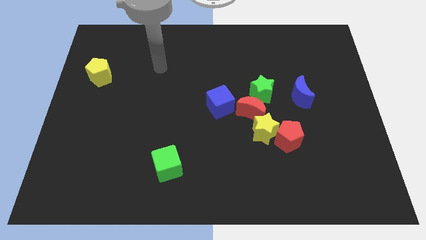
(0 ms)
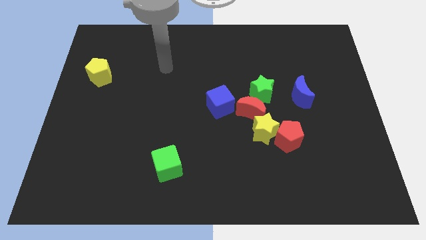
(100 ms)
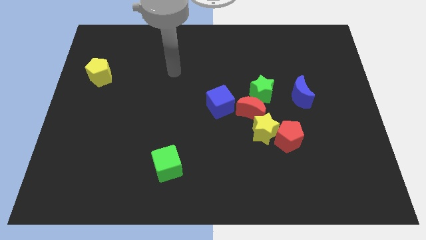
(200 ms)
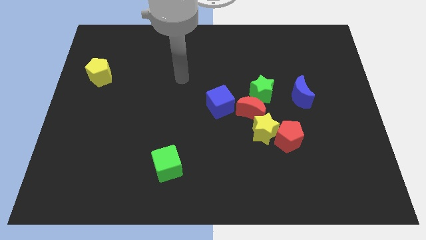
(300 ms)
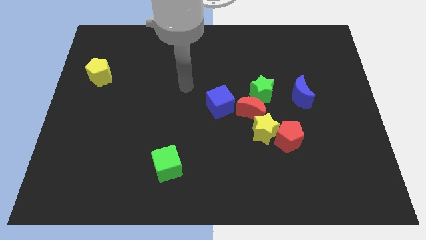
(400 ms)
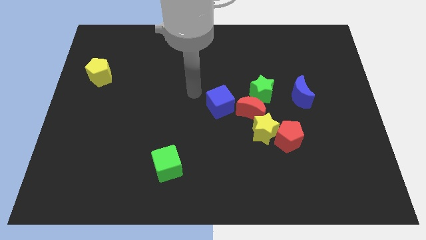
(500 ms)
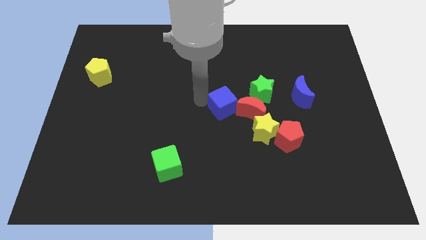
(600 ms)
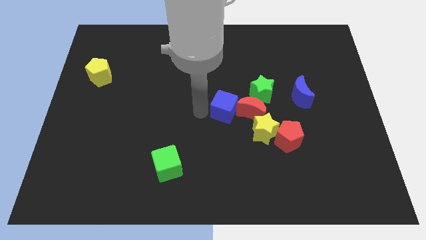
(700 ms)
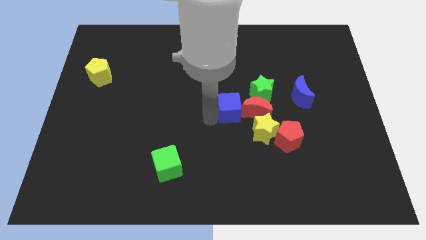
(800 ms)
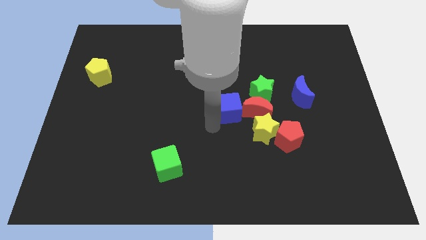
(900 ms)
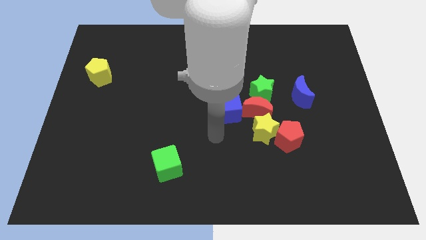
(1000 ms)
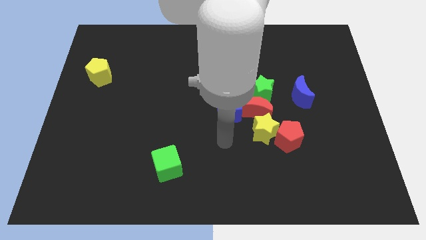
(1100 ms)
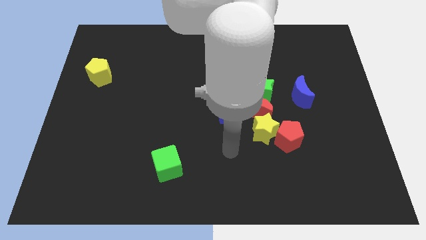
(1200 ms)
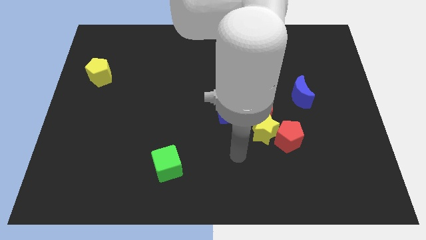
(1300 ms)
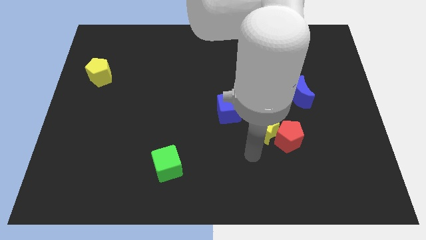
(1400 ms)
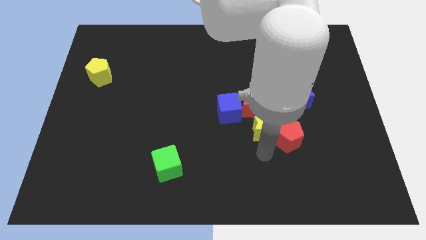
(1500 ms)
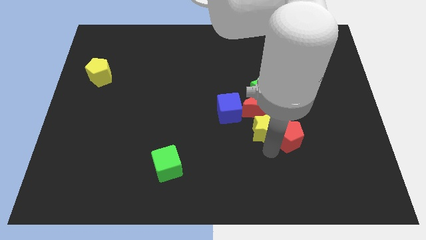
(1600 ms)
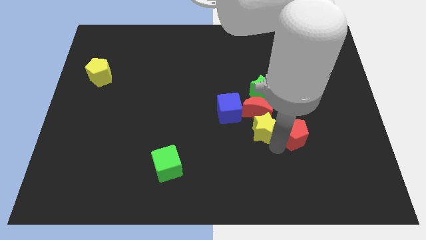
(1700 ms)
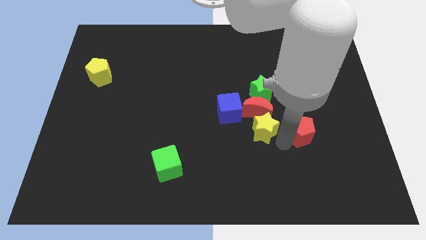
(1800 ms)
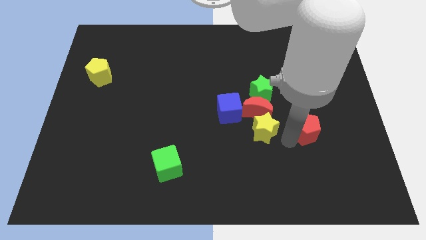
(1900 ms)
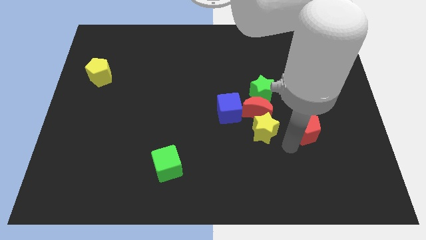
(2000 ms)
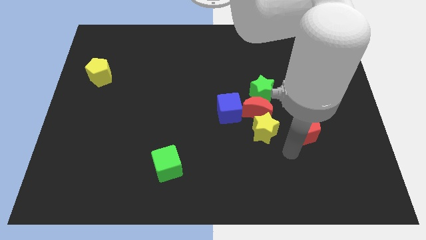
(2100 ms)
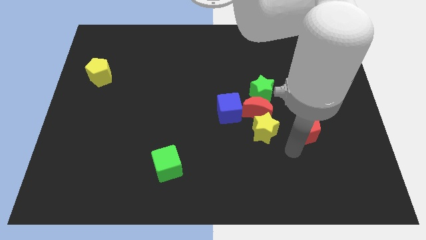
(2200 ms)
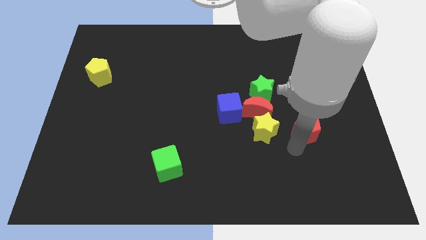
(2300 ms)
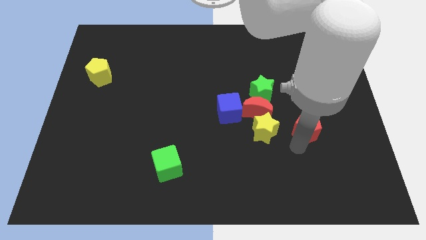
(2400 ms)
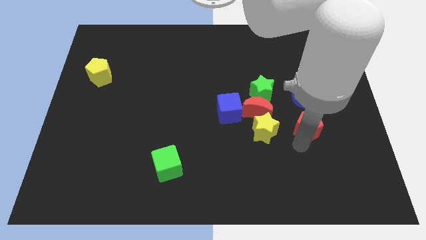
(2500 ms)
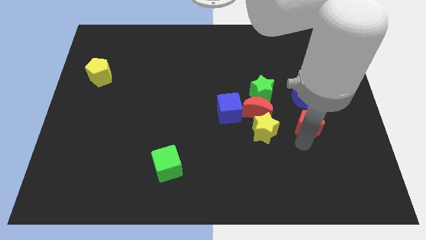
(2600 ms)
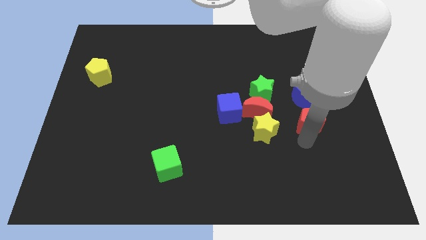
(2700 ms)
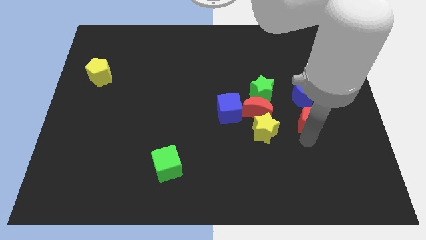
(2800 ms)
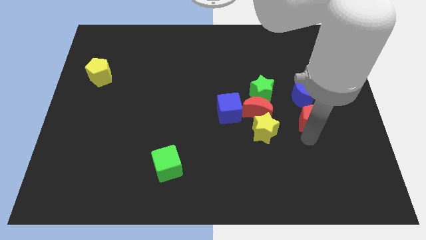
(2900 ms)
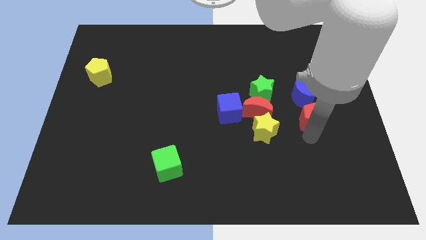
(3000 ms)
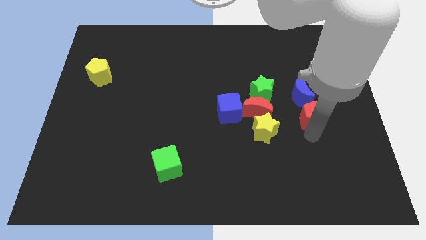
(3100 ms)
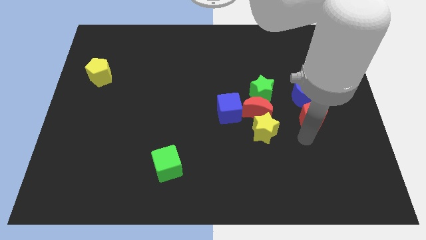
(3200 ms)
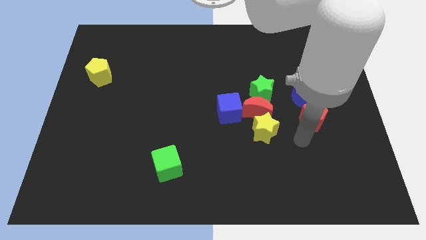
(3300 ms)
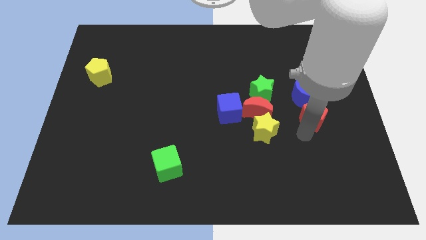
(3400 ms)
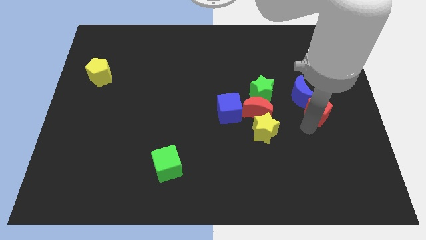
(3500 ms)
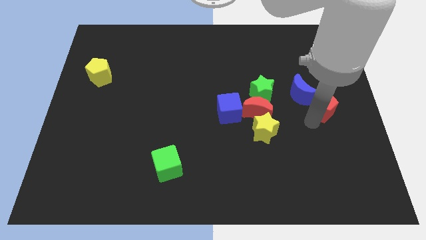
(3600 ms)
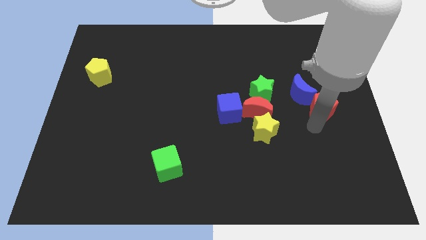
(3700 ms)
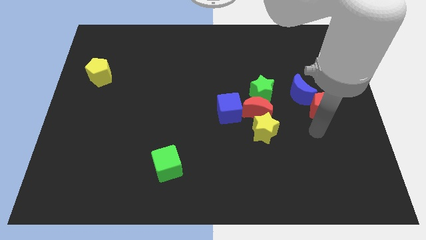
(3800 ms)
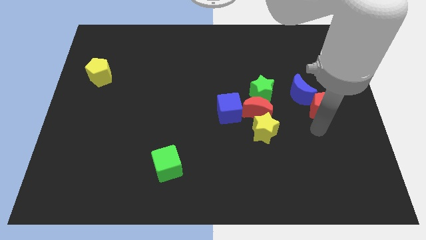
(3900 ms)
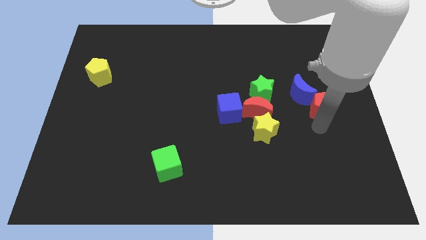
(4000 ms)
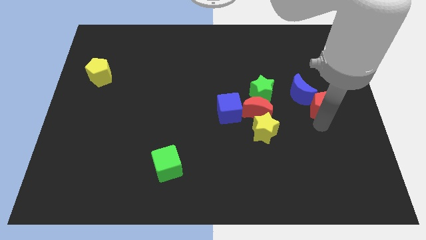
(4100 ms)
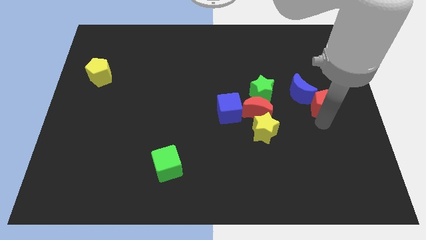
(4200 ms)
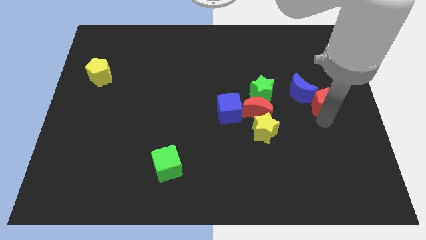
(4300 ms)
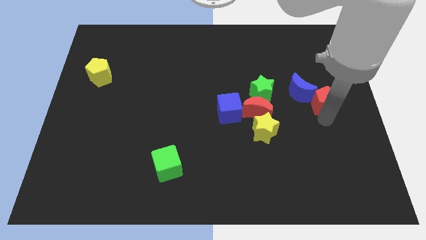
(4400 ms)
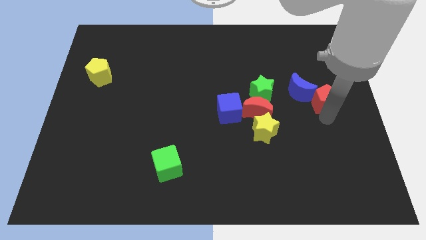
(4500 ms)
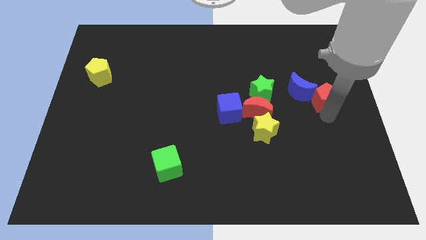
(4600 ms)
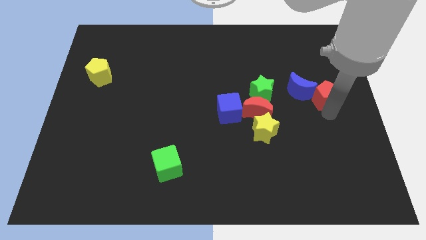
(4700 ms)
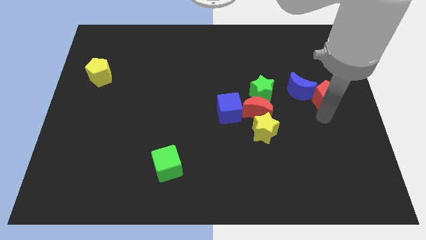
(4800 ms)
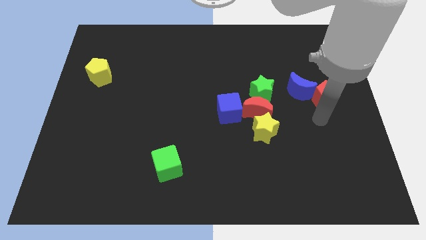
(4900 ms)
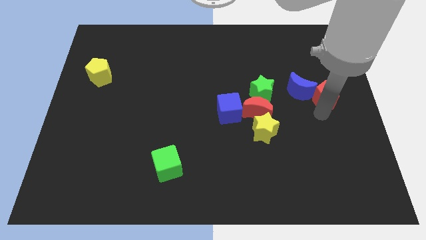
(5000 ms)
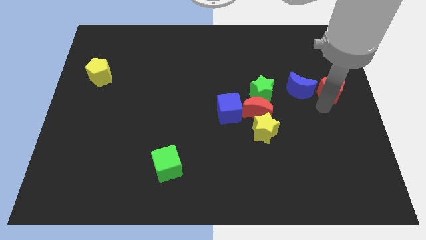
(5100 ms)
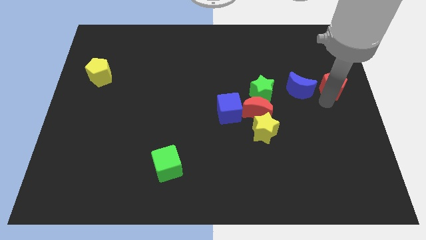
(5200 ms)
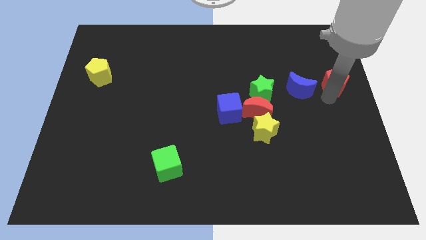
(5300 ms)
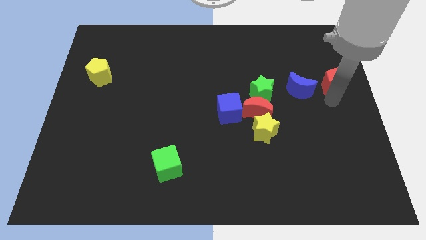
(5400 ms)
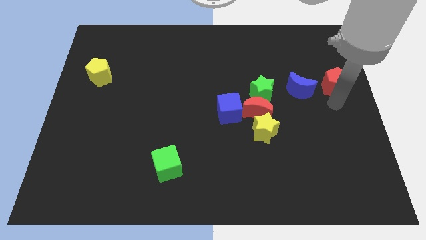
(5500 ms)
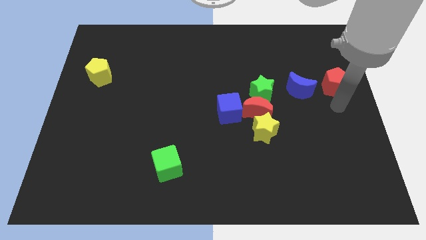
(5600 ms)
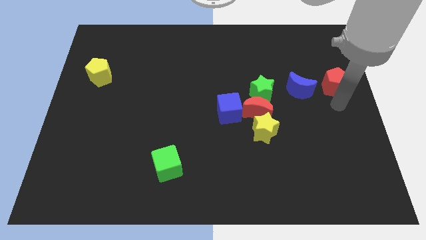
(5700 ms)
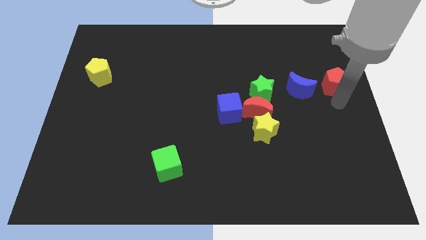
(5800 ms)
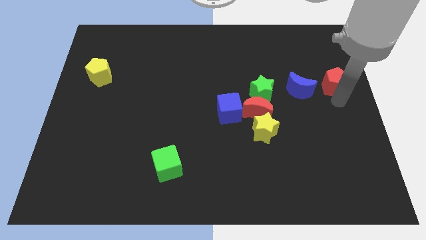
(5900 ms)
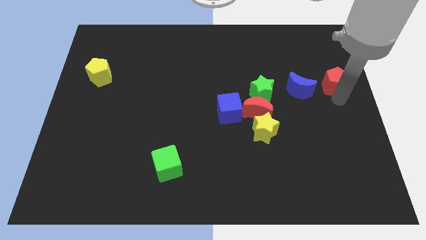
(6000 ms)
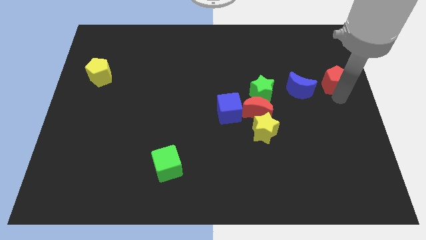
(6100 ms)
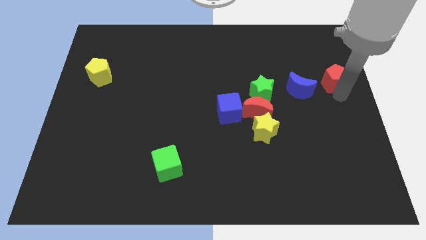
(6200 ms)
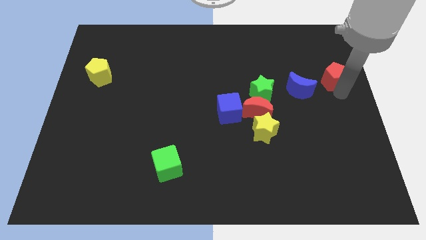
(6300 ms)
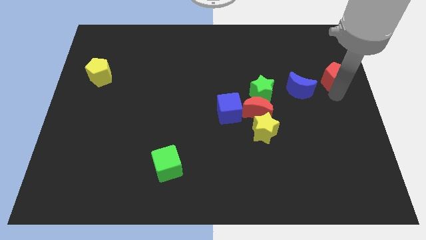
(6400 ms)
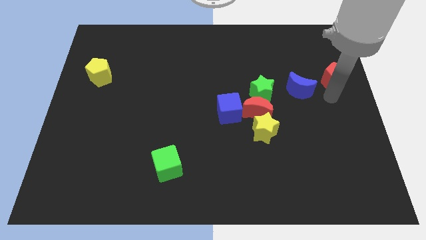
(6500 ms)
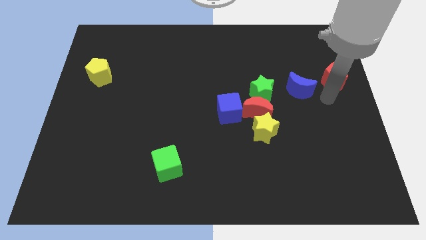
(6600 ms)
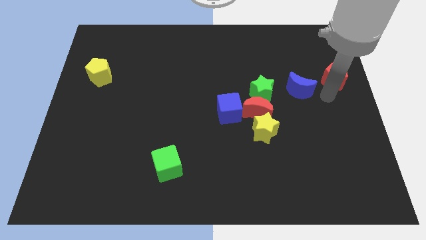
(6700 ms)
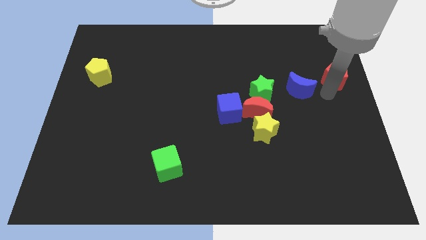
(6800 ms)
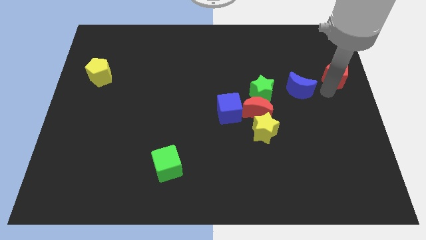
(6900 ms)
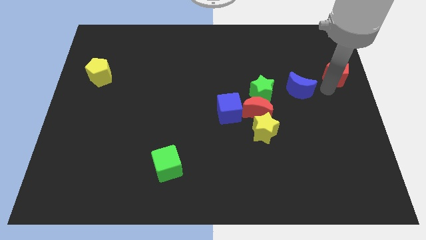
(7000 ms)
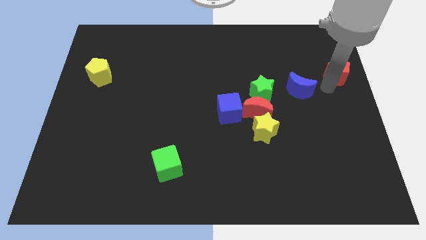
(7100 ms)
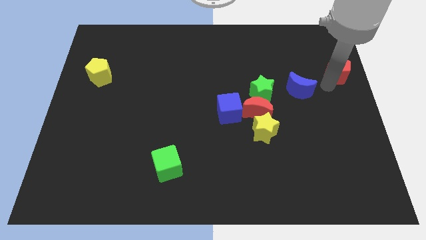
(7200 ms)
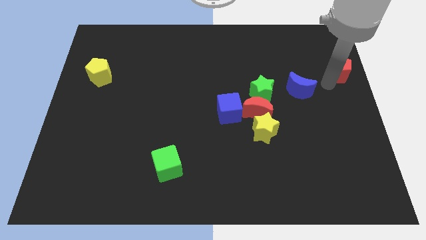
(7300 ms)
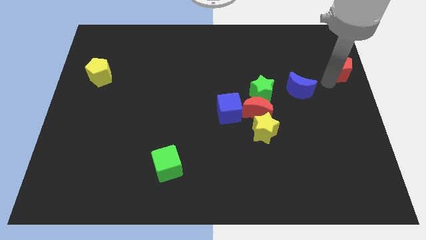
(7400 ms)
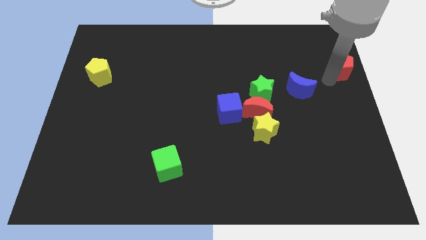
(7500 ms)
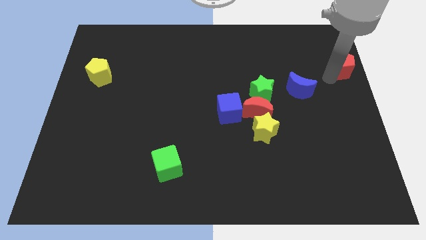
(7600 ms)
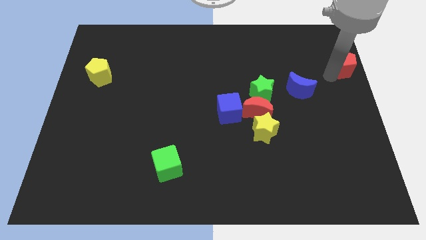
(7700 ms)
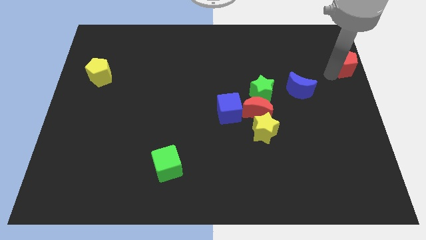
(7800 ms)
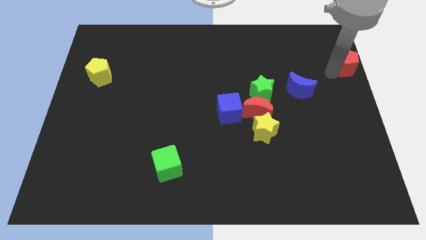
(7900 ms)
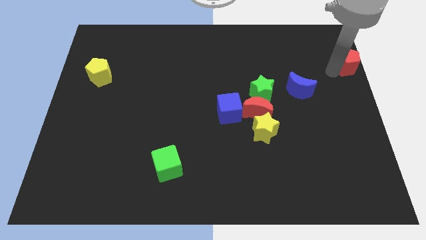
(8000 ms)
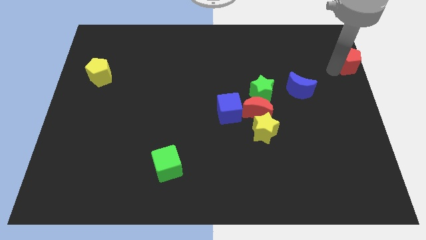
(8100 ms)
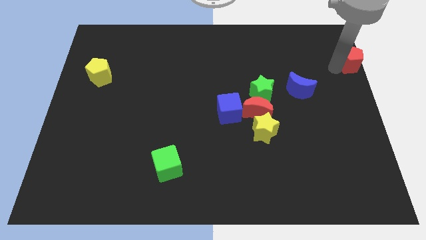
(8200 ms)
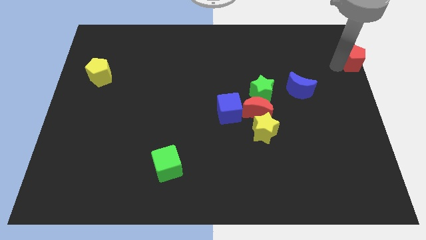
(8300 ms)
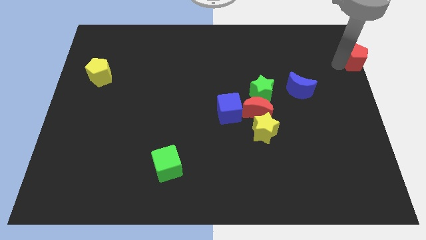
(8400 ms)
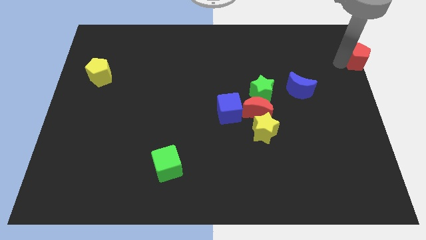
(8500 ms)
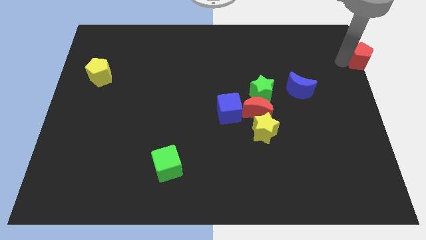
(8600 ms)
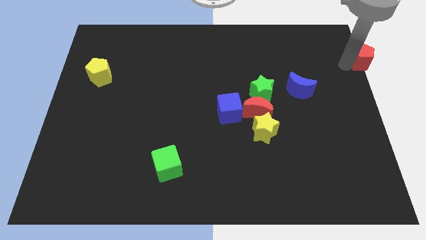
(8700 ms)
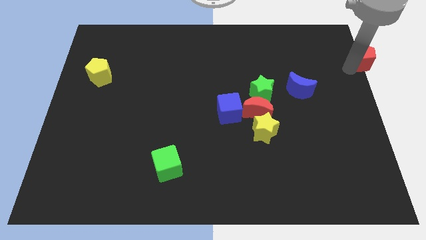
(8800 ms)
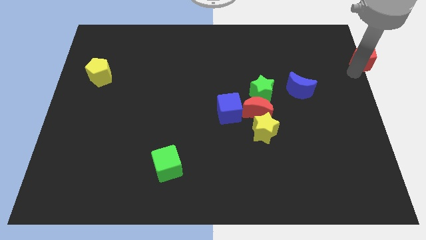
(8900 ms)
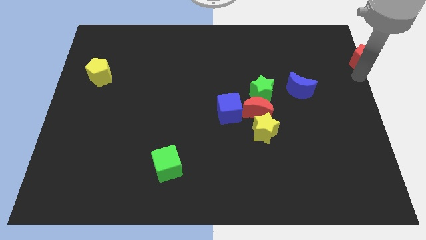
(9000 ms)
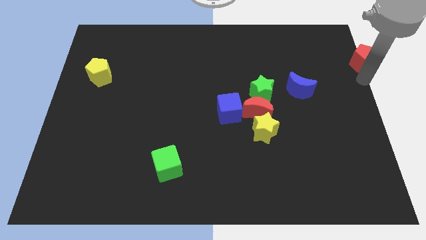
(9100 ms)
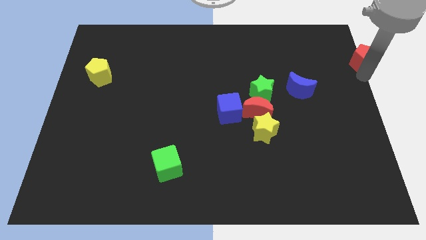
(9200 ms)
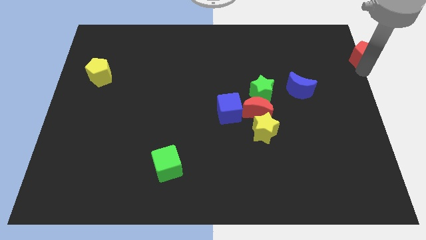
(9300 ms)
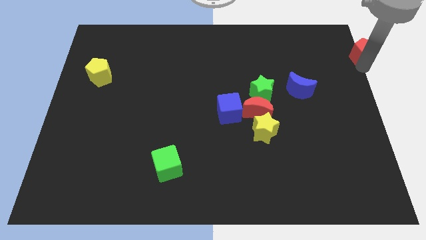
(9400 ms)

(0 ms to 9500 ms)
push the red pentagon to the top right
